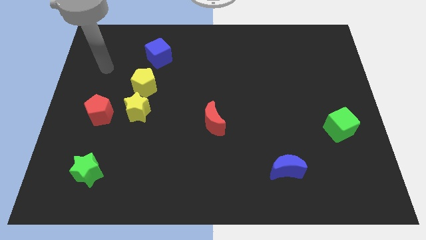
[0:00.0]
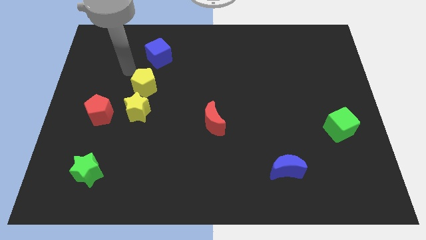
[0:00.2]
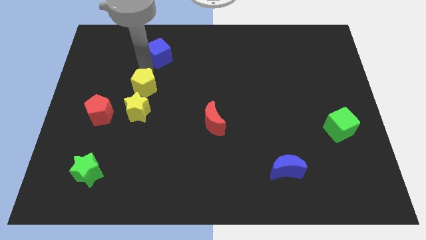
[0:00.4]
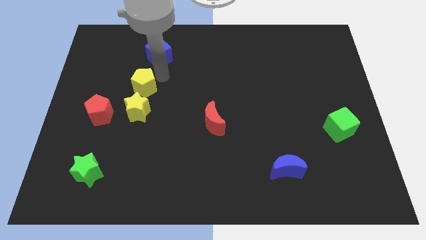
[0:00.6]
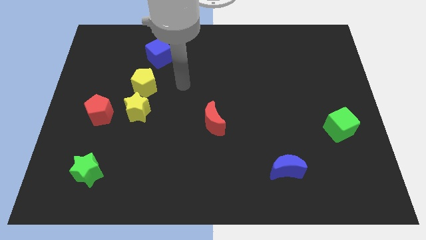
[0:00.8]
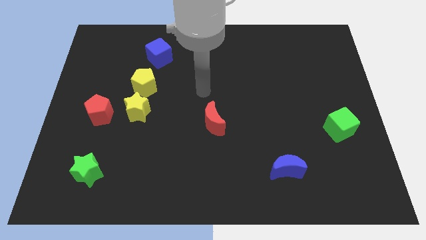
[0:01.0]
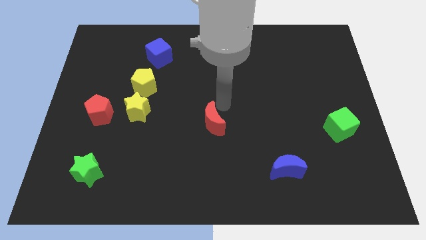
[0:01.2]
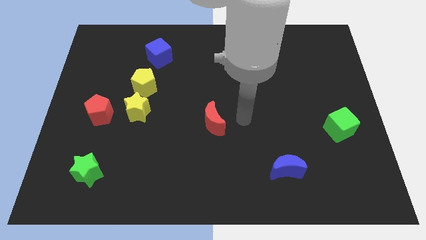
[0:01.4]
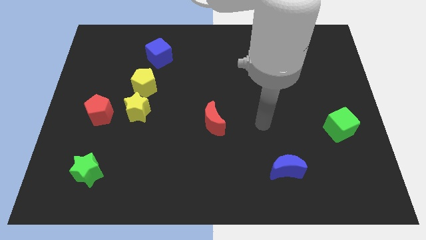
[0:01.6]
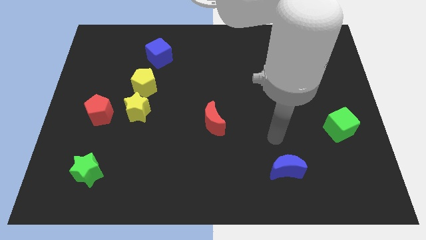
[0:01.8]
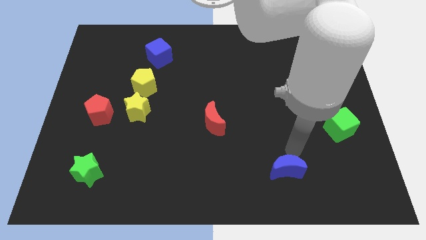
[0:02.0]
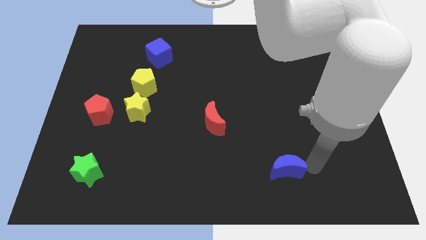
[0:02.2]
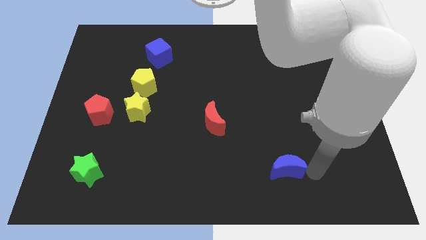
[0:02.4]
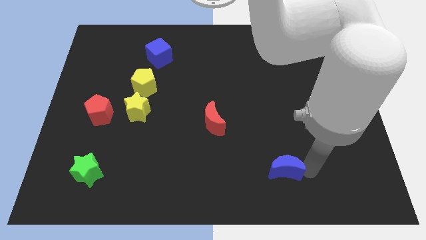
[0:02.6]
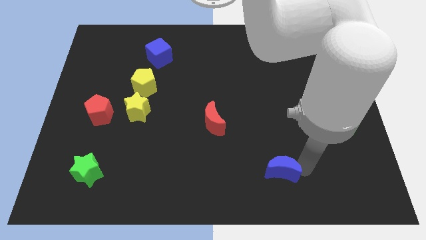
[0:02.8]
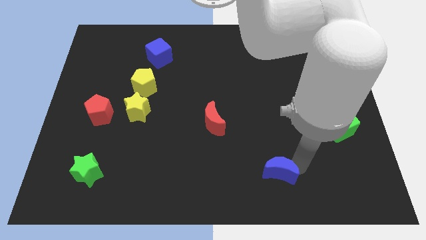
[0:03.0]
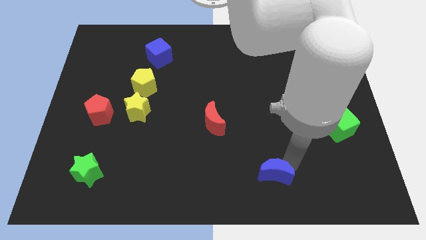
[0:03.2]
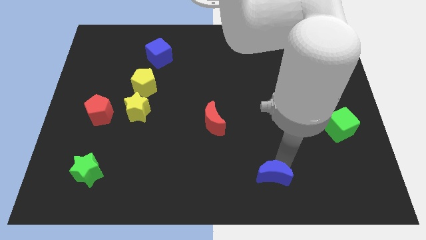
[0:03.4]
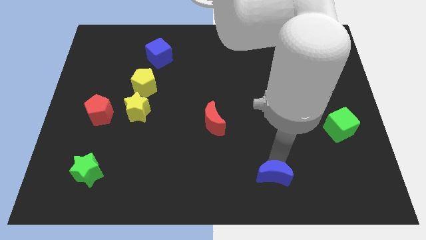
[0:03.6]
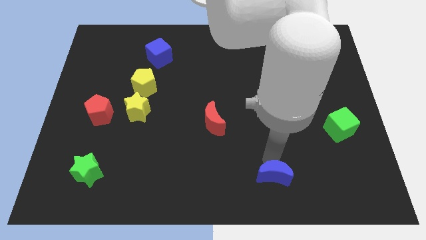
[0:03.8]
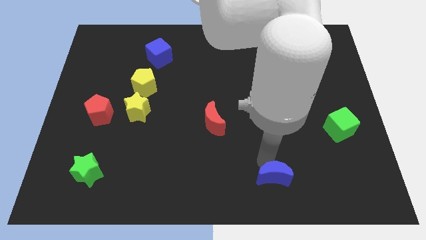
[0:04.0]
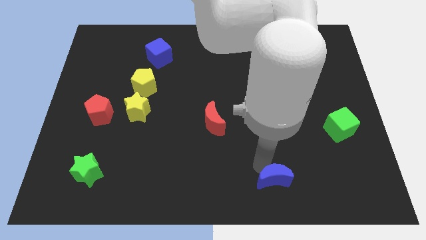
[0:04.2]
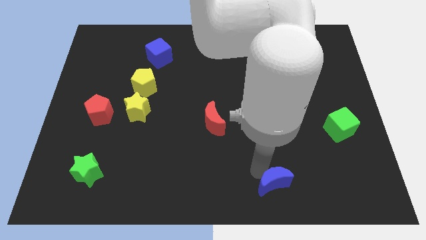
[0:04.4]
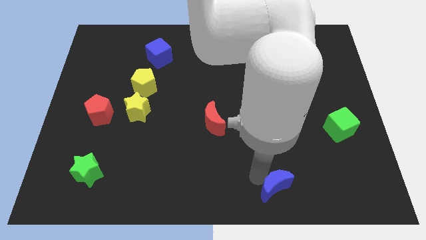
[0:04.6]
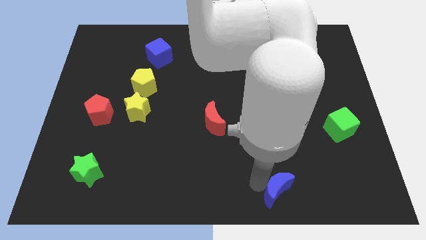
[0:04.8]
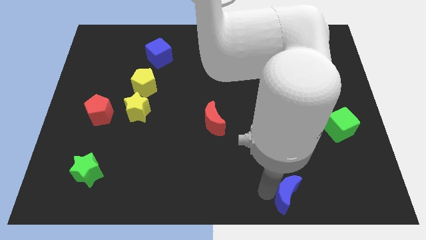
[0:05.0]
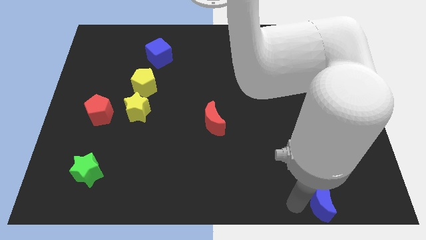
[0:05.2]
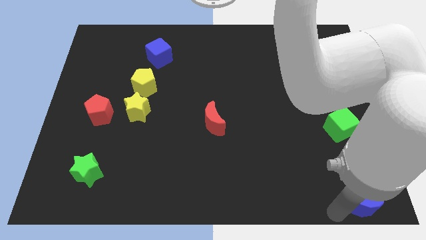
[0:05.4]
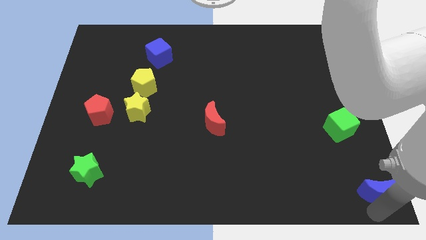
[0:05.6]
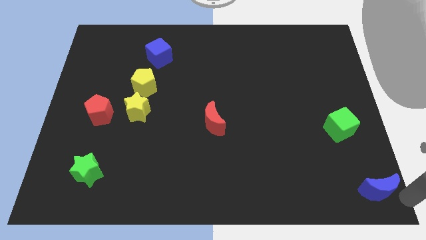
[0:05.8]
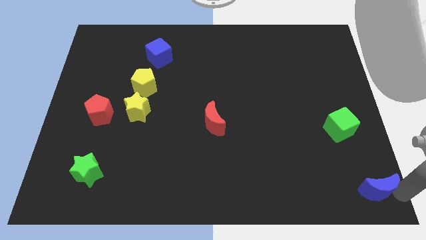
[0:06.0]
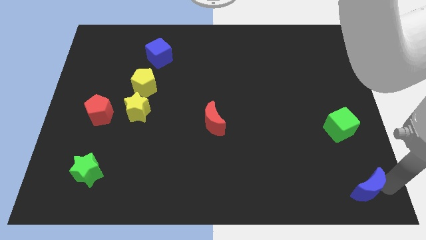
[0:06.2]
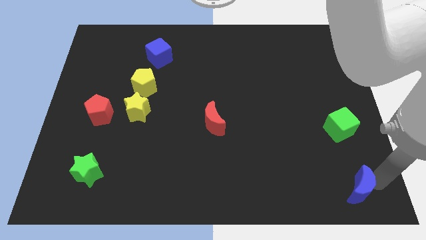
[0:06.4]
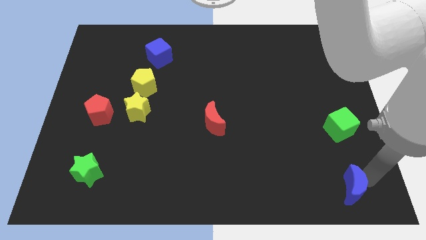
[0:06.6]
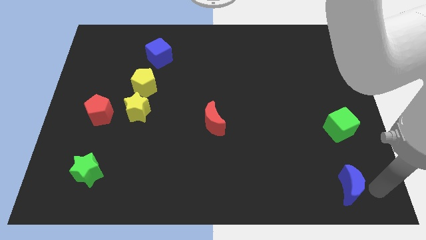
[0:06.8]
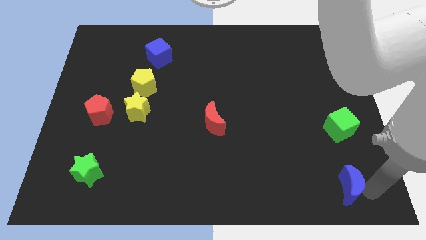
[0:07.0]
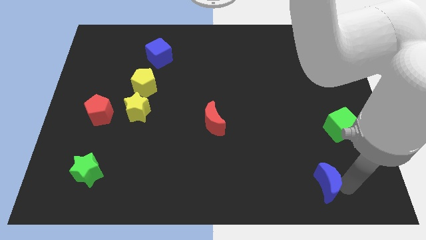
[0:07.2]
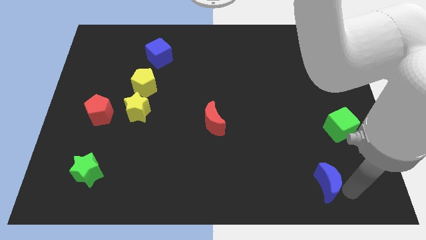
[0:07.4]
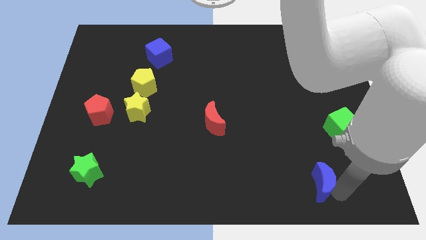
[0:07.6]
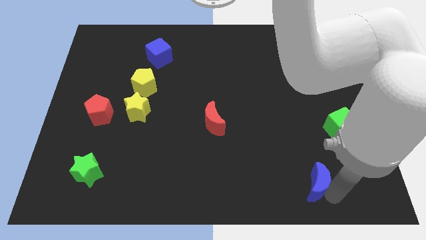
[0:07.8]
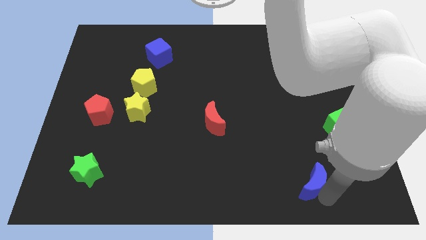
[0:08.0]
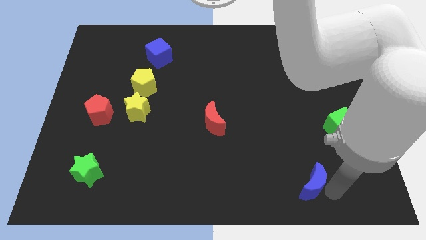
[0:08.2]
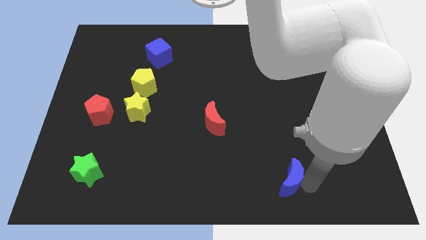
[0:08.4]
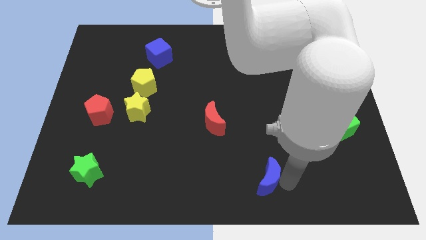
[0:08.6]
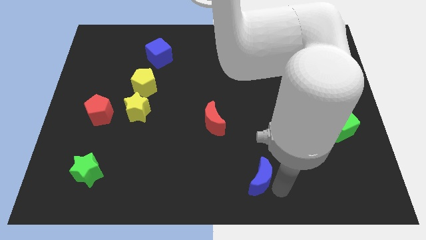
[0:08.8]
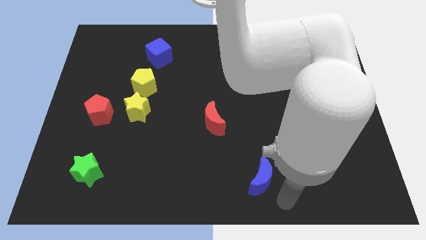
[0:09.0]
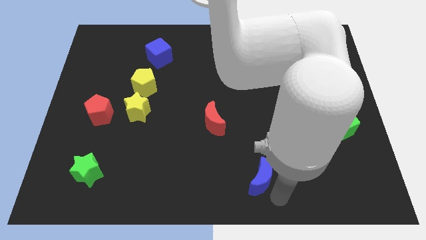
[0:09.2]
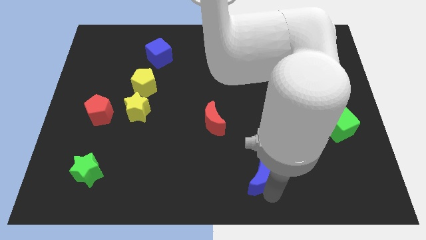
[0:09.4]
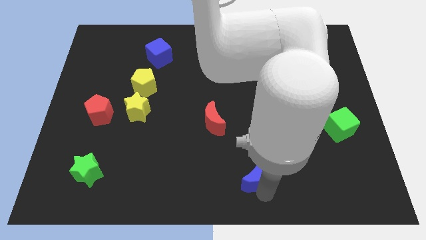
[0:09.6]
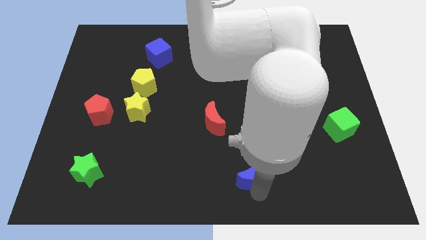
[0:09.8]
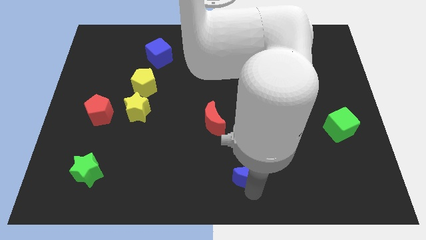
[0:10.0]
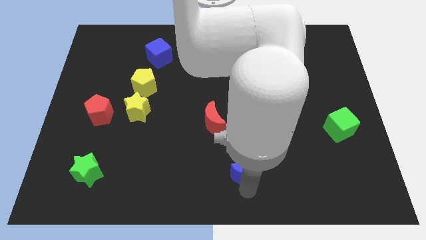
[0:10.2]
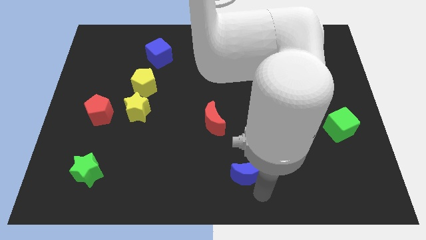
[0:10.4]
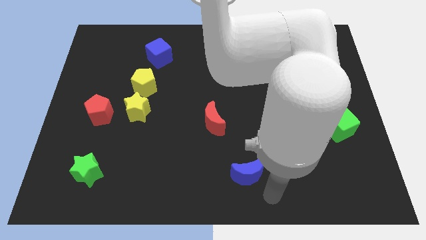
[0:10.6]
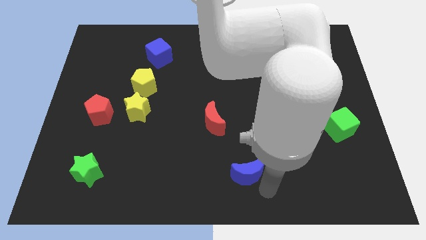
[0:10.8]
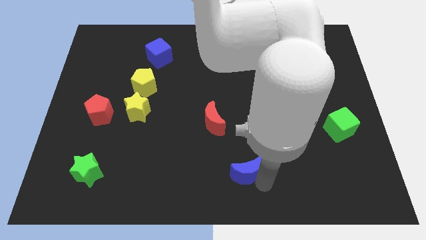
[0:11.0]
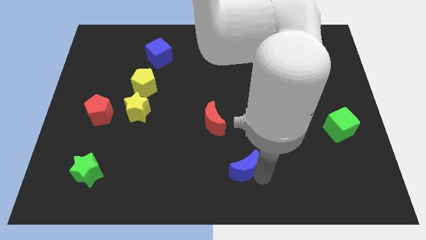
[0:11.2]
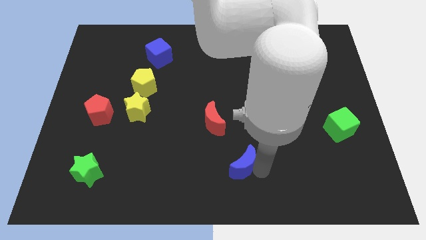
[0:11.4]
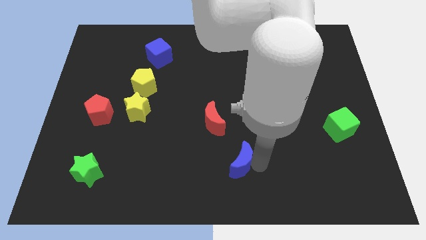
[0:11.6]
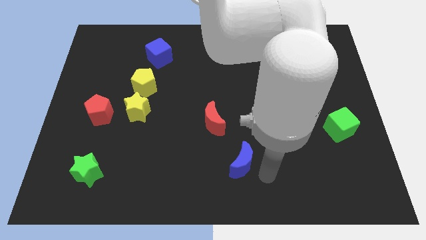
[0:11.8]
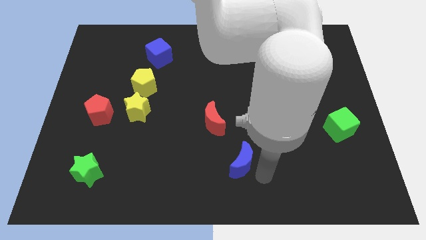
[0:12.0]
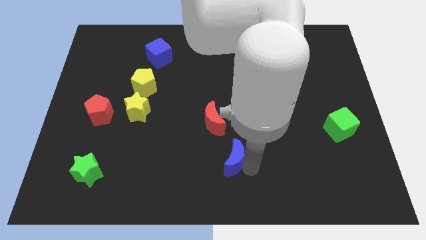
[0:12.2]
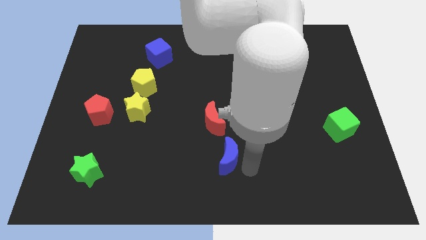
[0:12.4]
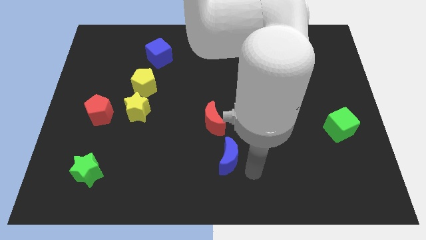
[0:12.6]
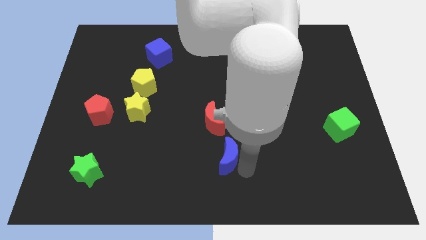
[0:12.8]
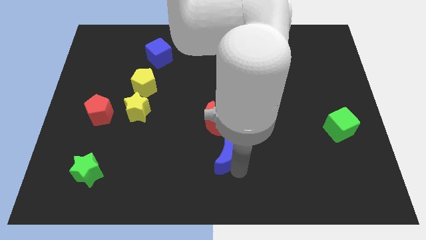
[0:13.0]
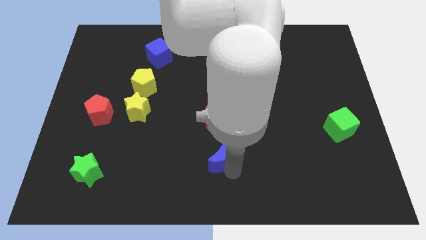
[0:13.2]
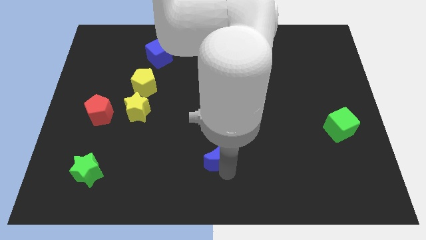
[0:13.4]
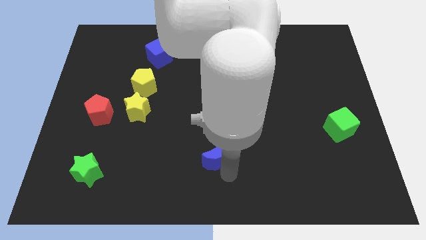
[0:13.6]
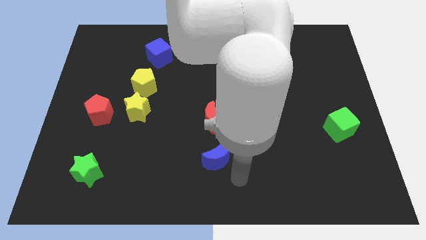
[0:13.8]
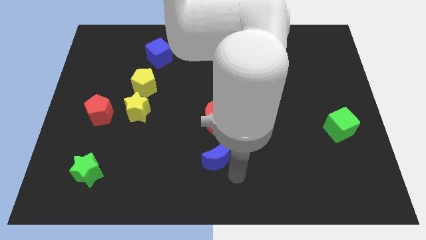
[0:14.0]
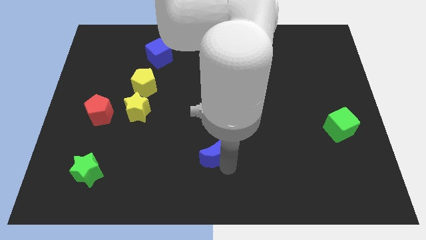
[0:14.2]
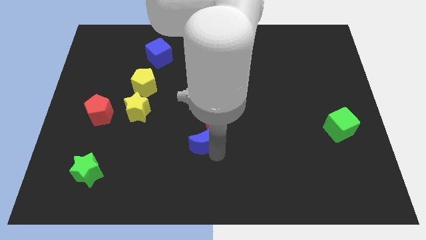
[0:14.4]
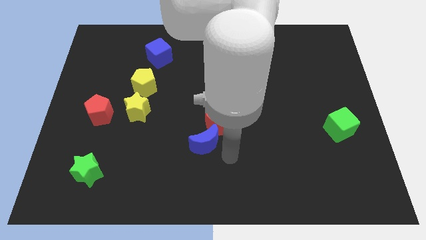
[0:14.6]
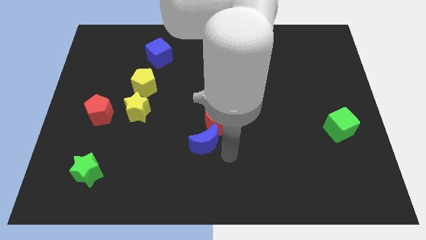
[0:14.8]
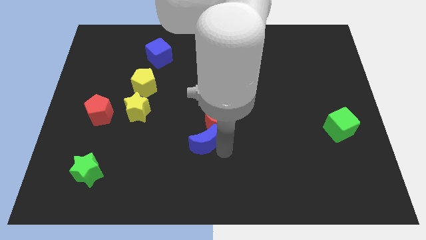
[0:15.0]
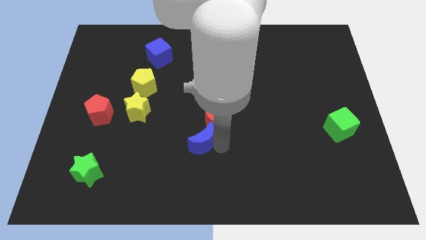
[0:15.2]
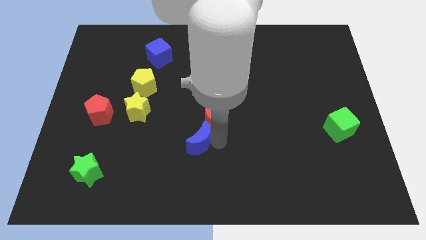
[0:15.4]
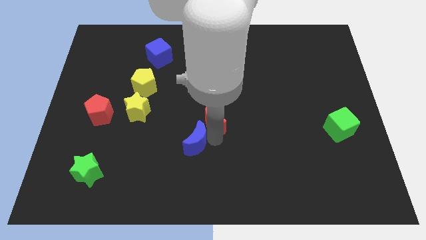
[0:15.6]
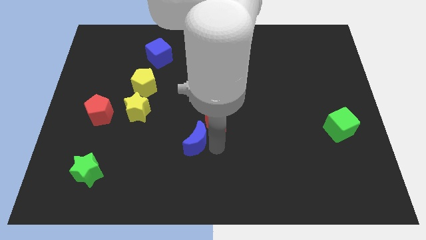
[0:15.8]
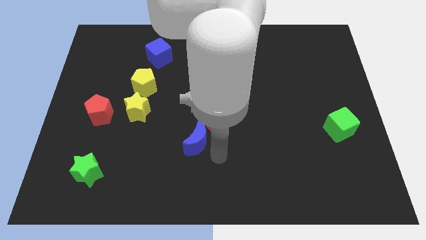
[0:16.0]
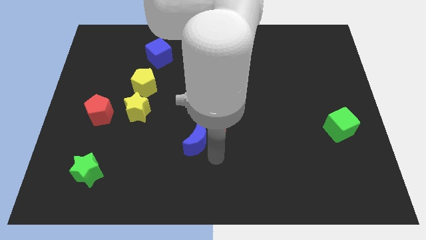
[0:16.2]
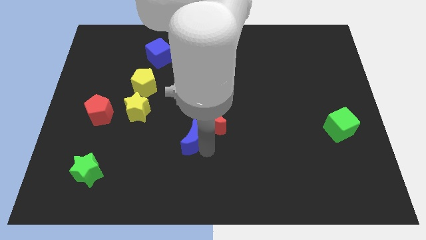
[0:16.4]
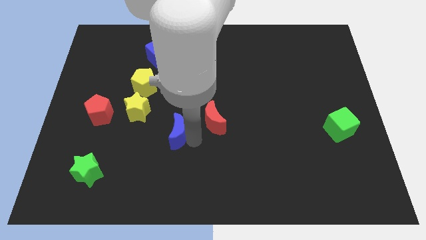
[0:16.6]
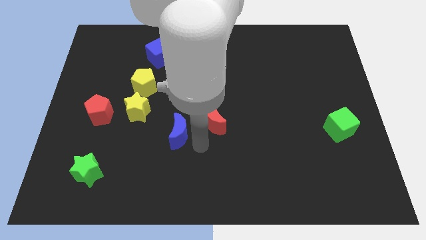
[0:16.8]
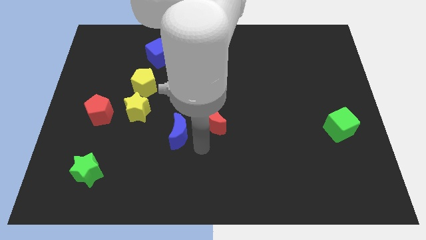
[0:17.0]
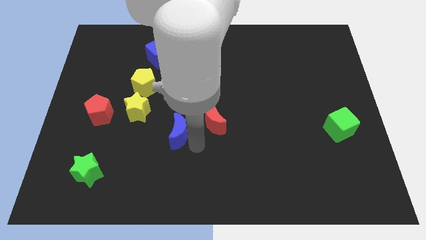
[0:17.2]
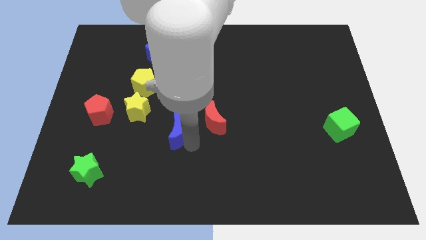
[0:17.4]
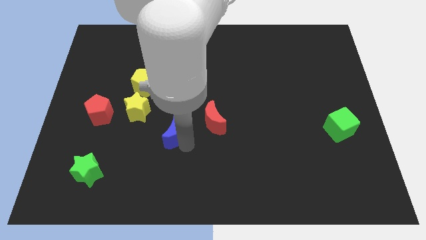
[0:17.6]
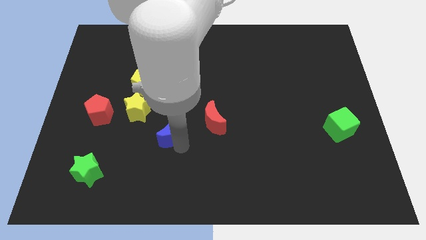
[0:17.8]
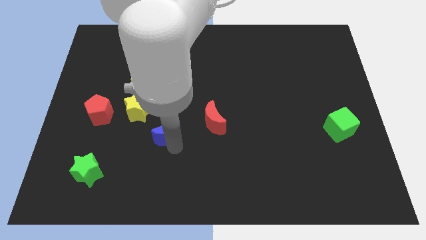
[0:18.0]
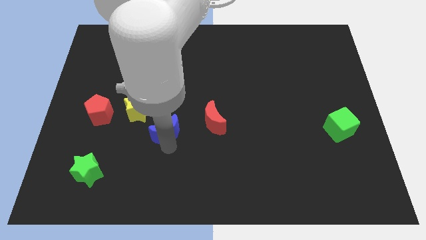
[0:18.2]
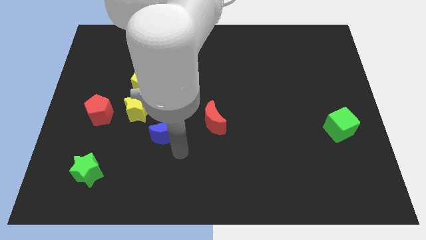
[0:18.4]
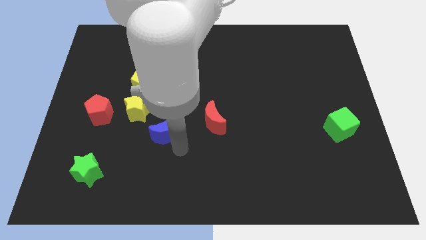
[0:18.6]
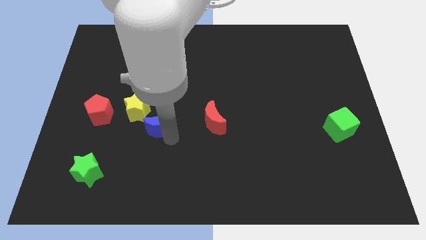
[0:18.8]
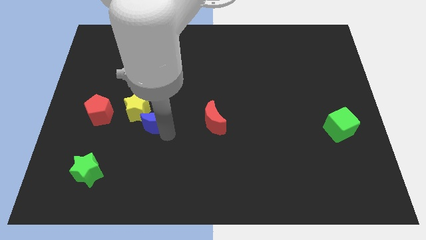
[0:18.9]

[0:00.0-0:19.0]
move the blue moon close to the yellow star
